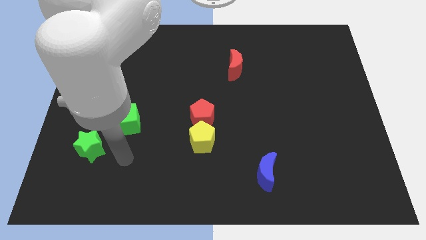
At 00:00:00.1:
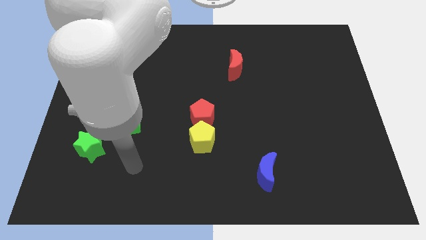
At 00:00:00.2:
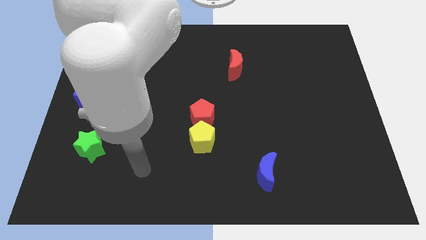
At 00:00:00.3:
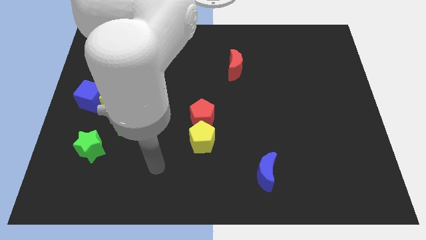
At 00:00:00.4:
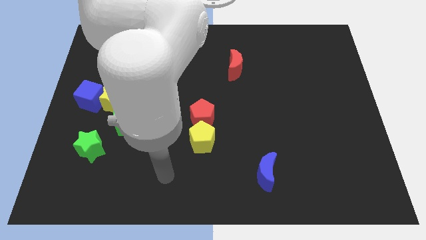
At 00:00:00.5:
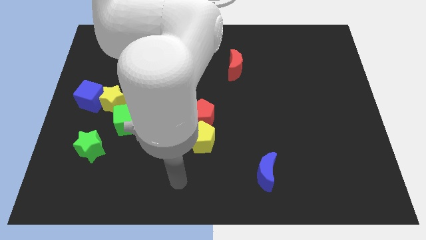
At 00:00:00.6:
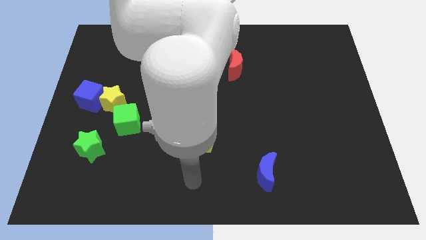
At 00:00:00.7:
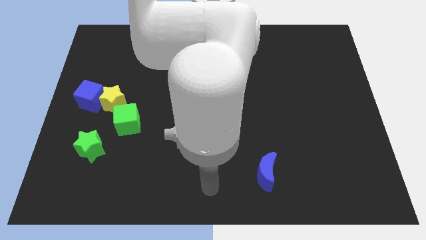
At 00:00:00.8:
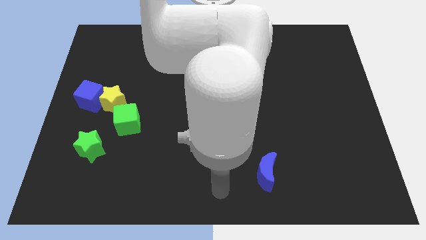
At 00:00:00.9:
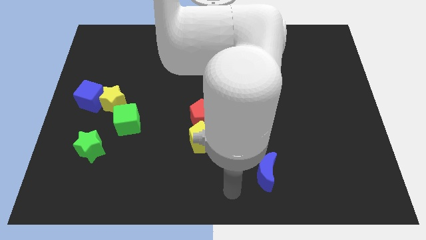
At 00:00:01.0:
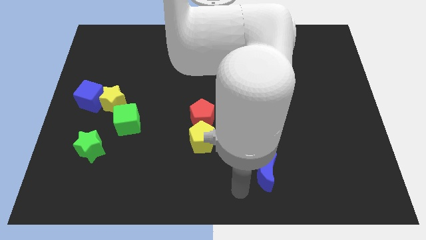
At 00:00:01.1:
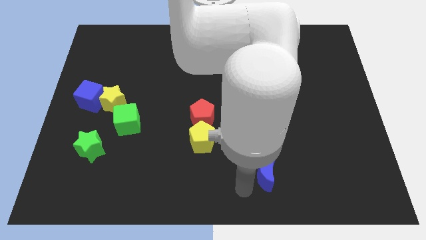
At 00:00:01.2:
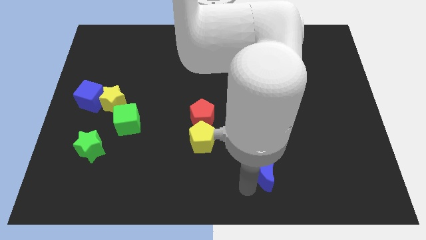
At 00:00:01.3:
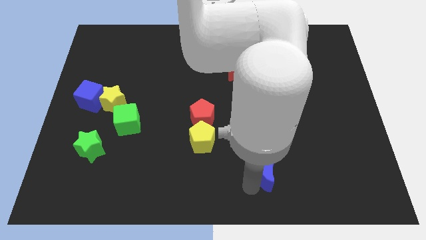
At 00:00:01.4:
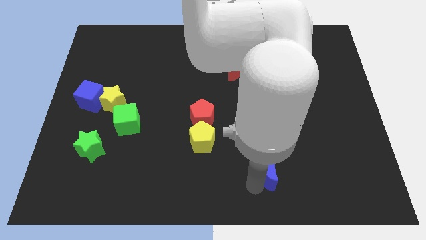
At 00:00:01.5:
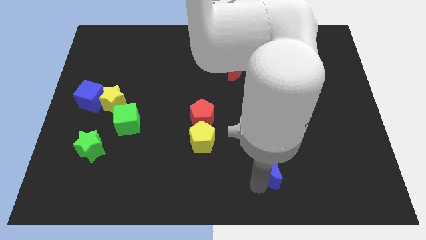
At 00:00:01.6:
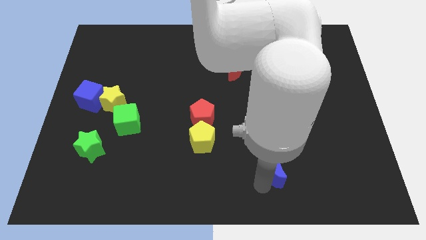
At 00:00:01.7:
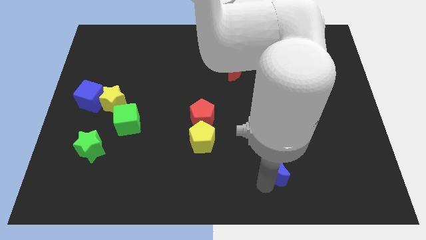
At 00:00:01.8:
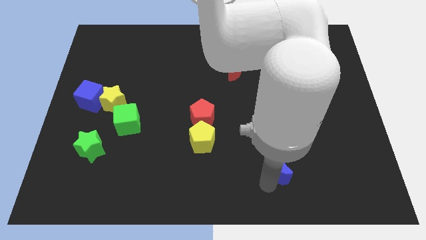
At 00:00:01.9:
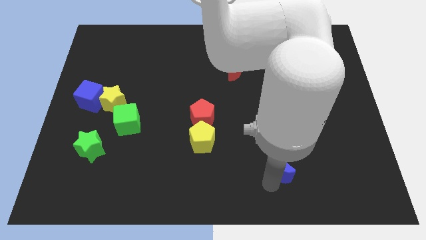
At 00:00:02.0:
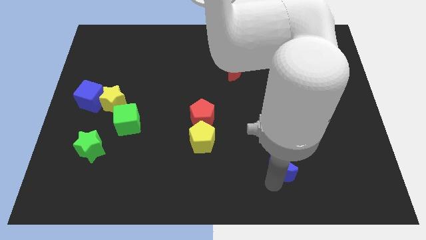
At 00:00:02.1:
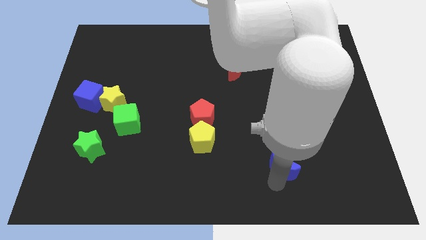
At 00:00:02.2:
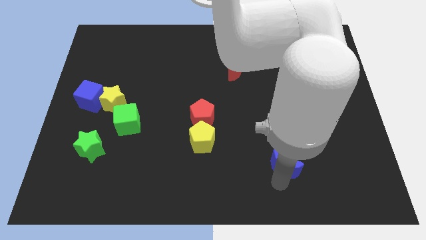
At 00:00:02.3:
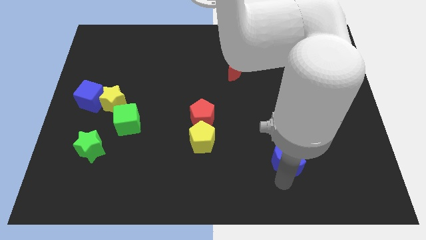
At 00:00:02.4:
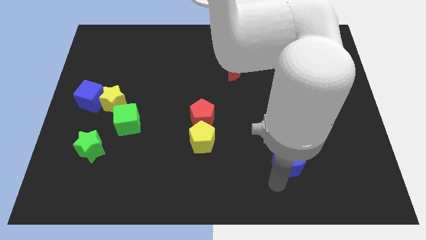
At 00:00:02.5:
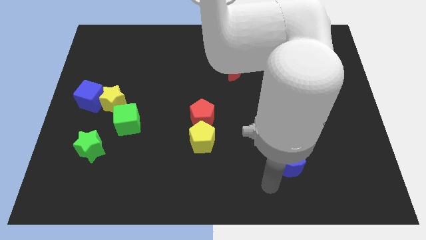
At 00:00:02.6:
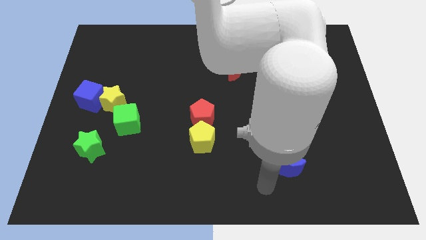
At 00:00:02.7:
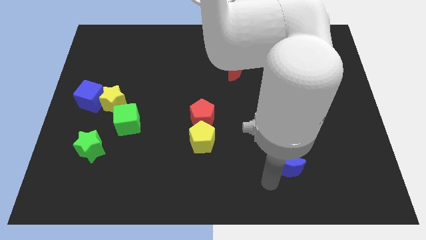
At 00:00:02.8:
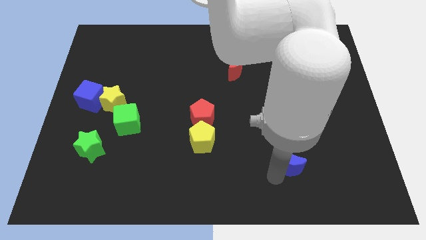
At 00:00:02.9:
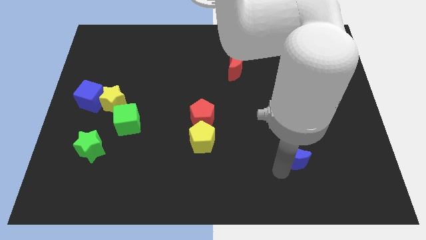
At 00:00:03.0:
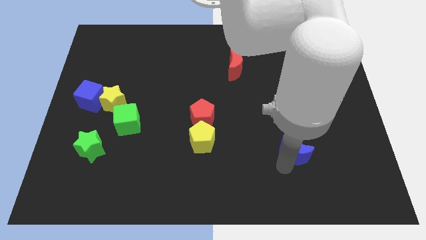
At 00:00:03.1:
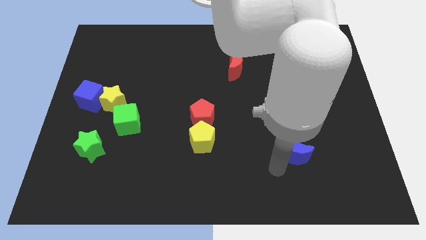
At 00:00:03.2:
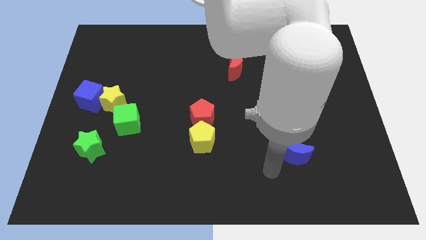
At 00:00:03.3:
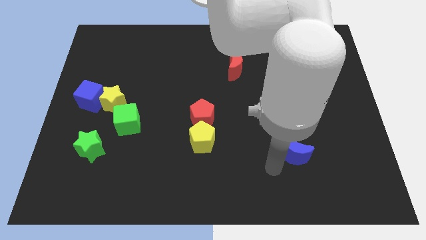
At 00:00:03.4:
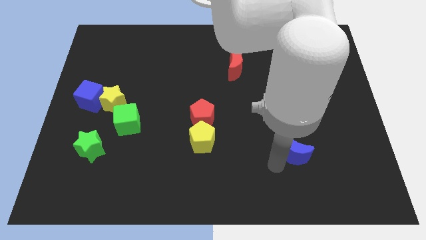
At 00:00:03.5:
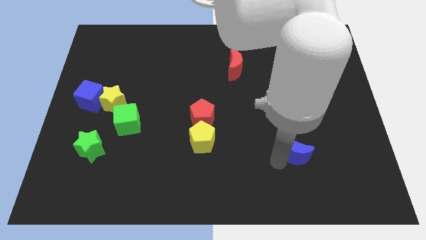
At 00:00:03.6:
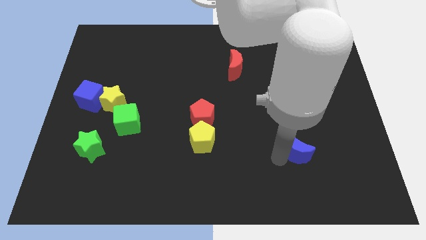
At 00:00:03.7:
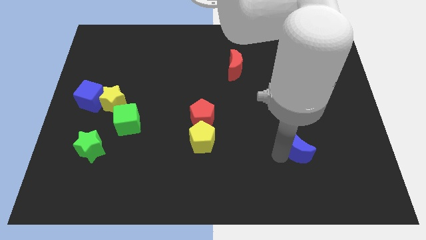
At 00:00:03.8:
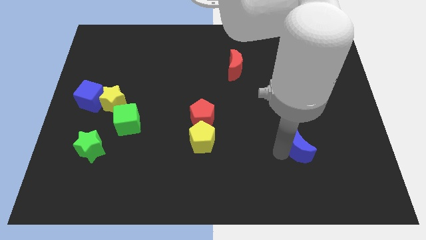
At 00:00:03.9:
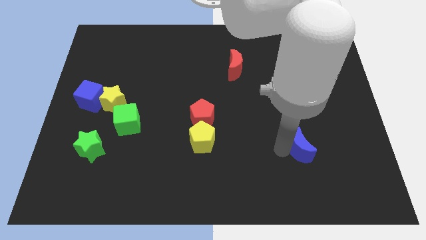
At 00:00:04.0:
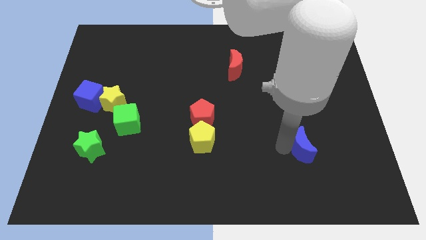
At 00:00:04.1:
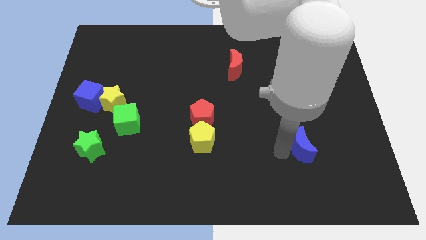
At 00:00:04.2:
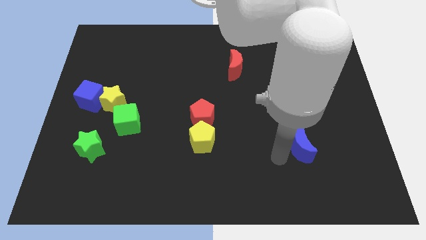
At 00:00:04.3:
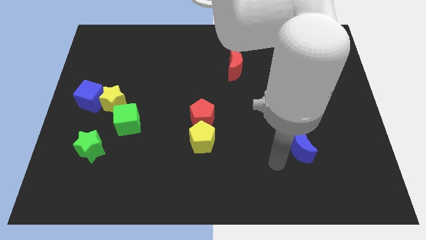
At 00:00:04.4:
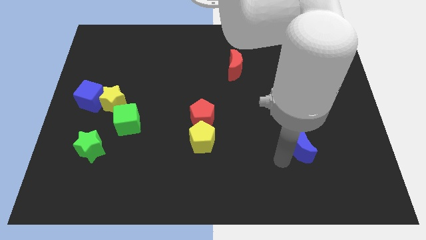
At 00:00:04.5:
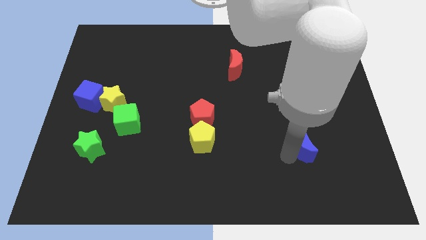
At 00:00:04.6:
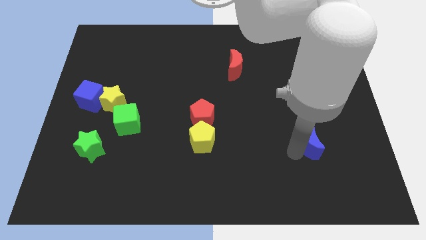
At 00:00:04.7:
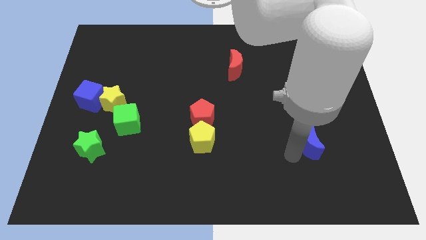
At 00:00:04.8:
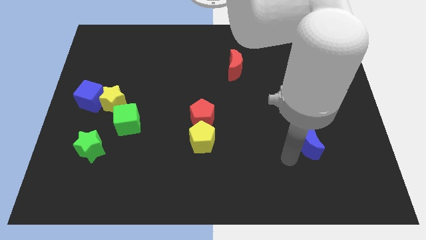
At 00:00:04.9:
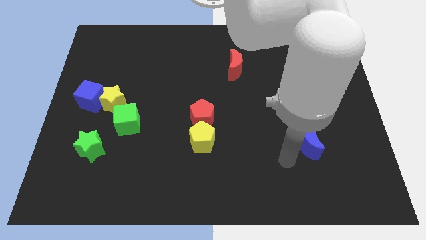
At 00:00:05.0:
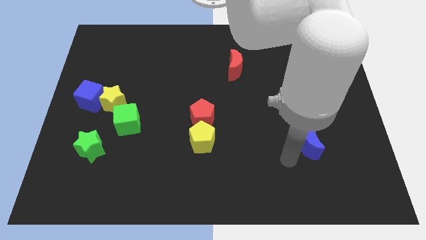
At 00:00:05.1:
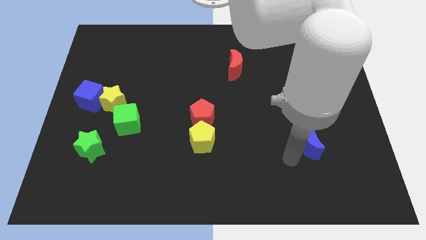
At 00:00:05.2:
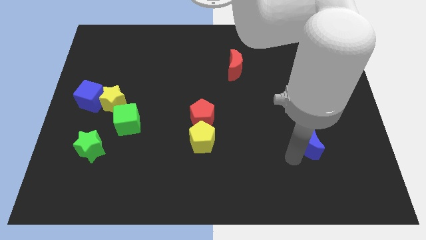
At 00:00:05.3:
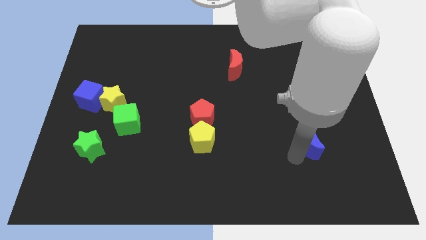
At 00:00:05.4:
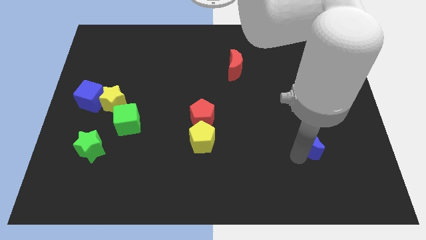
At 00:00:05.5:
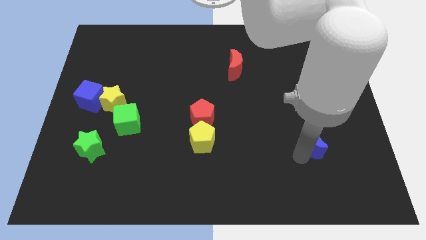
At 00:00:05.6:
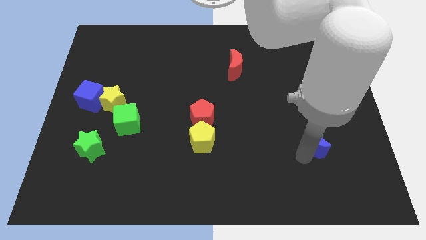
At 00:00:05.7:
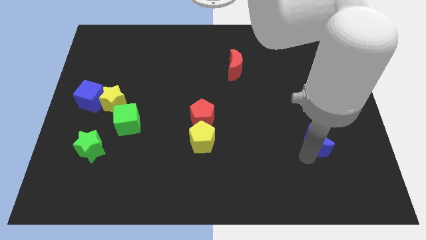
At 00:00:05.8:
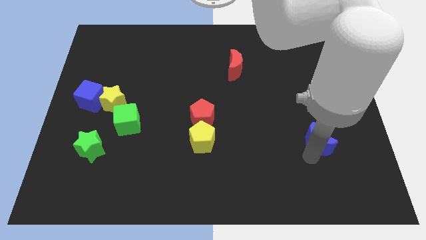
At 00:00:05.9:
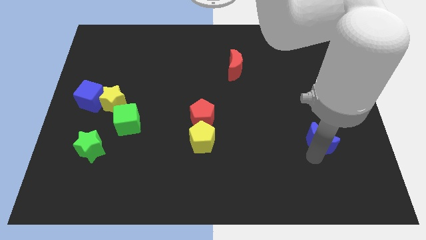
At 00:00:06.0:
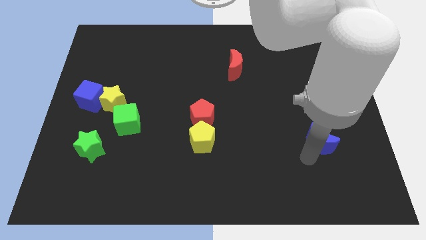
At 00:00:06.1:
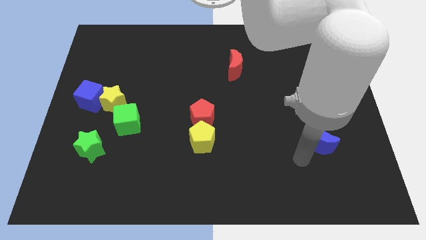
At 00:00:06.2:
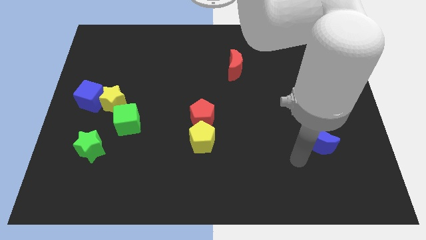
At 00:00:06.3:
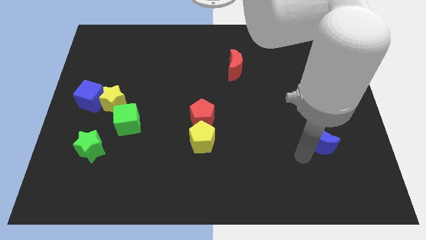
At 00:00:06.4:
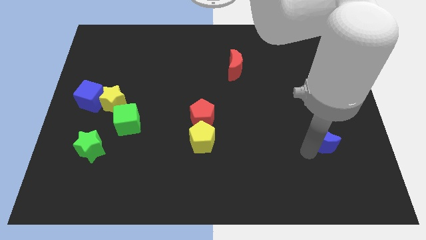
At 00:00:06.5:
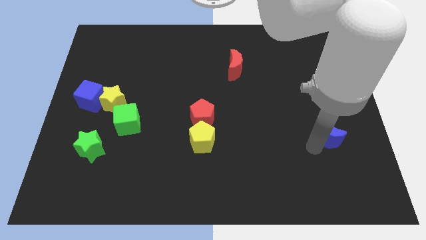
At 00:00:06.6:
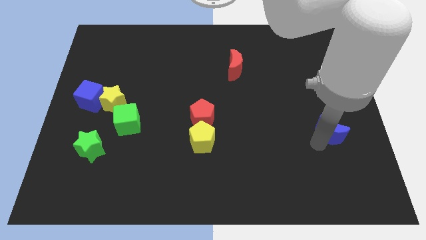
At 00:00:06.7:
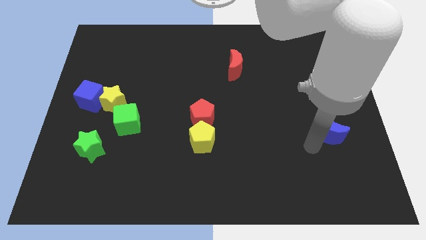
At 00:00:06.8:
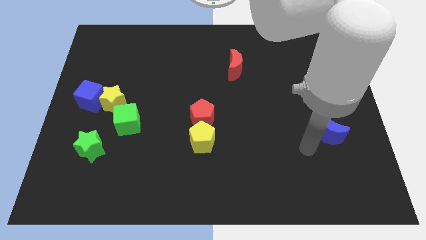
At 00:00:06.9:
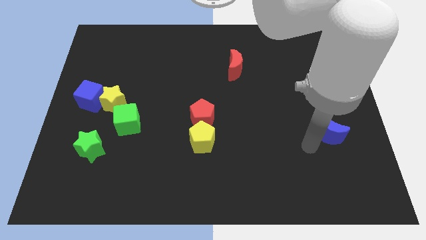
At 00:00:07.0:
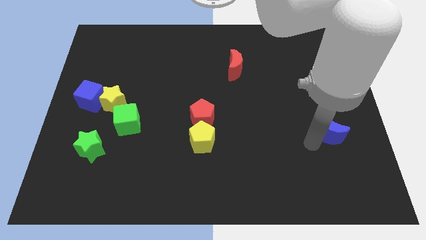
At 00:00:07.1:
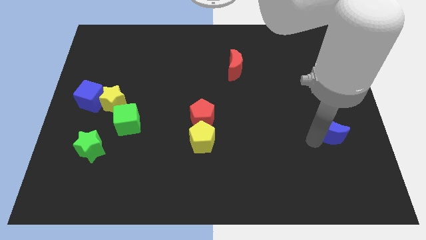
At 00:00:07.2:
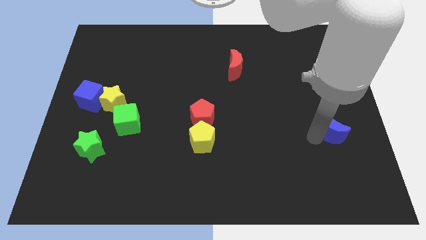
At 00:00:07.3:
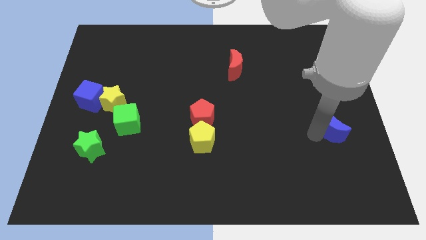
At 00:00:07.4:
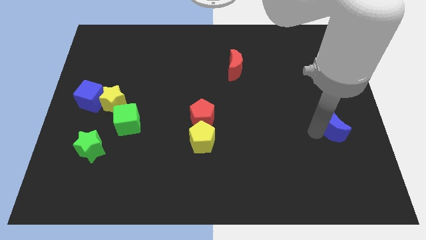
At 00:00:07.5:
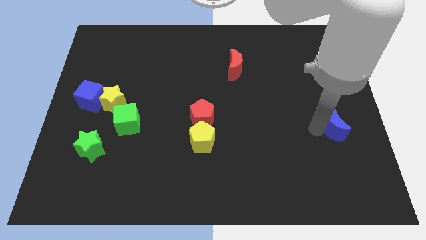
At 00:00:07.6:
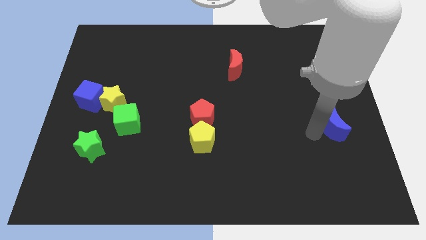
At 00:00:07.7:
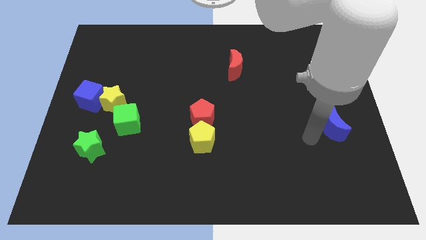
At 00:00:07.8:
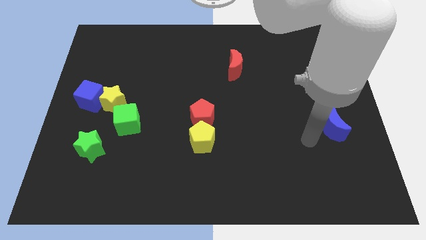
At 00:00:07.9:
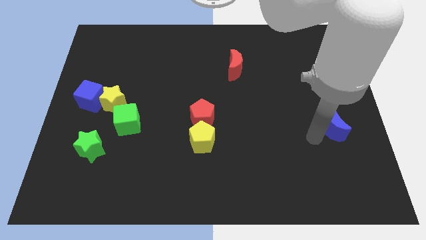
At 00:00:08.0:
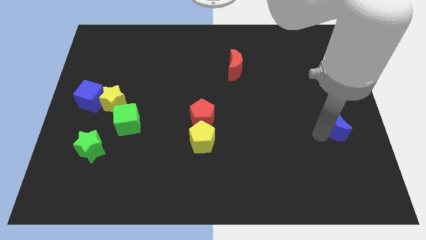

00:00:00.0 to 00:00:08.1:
put the blue moon to the right side of the board
